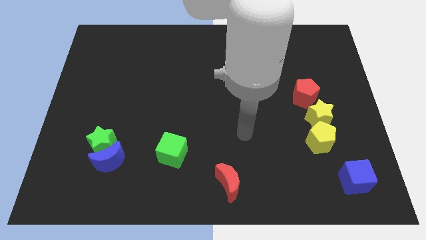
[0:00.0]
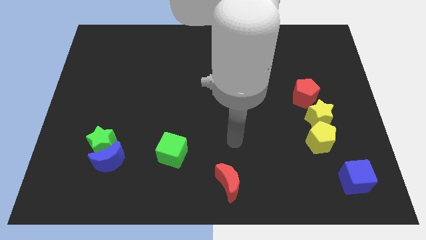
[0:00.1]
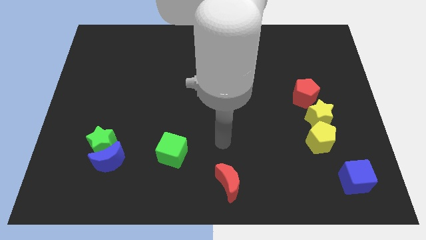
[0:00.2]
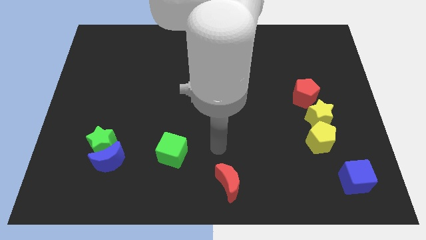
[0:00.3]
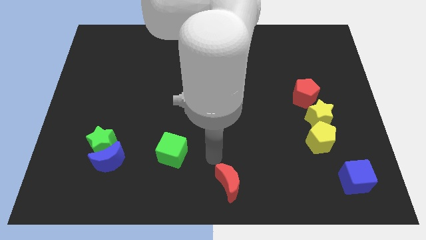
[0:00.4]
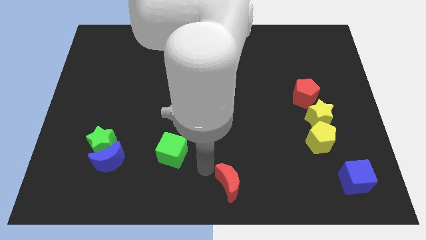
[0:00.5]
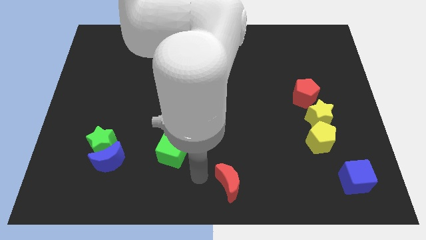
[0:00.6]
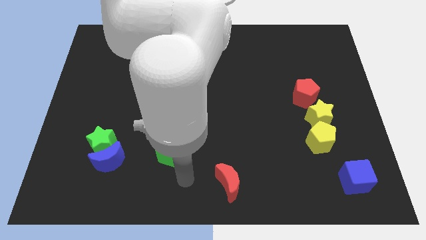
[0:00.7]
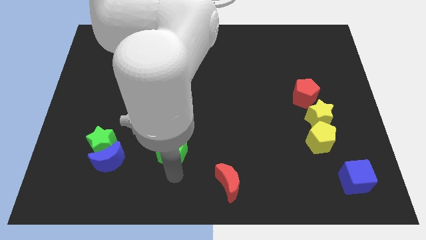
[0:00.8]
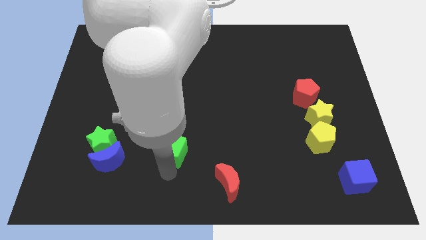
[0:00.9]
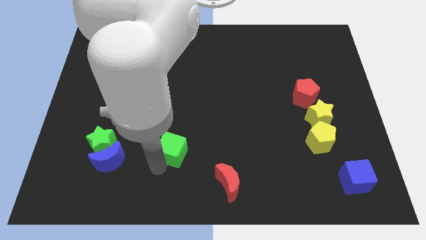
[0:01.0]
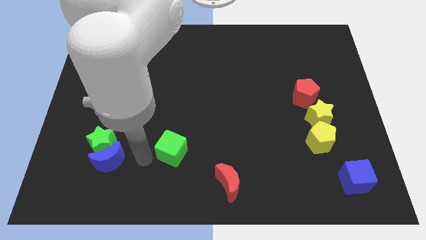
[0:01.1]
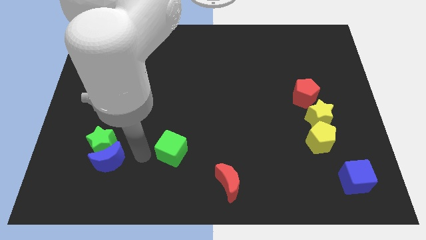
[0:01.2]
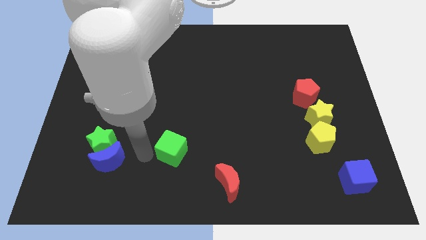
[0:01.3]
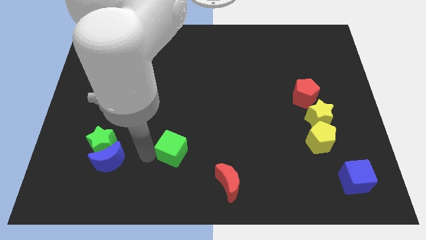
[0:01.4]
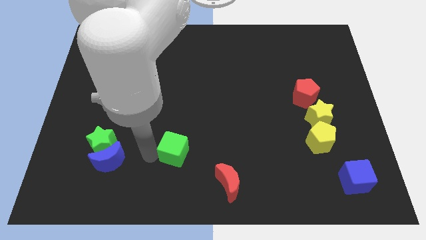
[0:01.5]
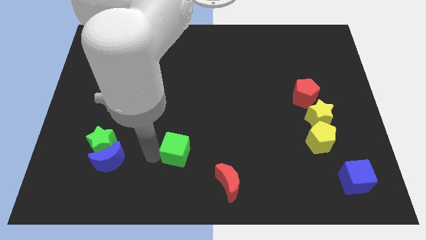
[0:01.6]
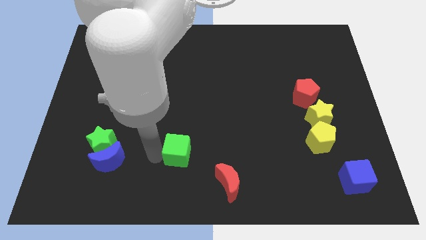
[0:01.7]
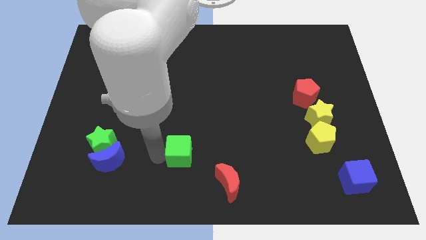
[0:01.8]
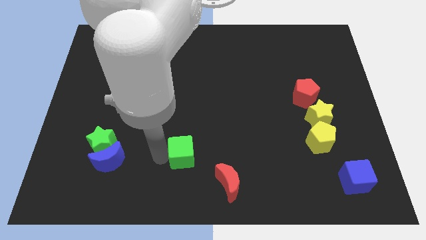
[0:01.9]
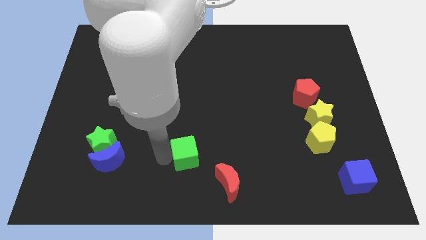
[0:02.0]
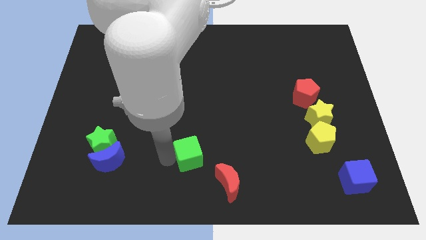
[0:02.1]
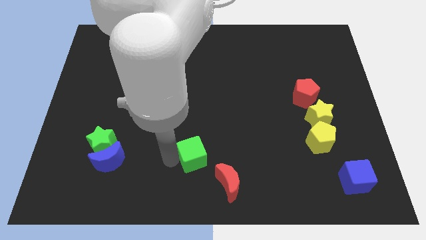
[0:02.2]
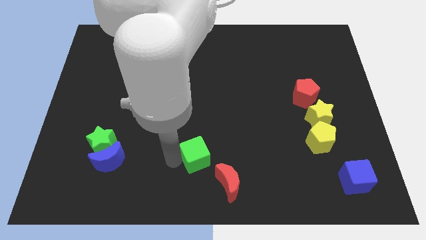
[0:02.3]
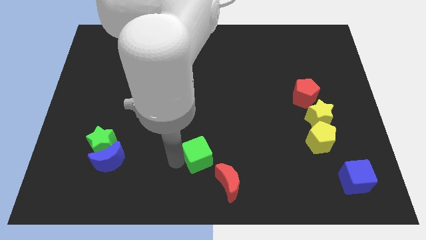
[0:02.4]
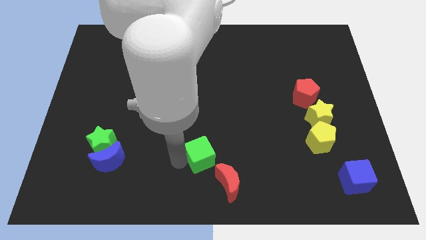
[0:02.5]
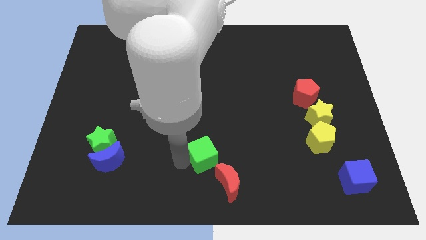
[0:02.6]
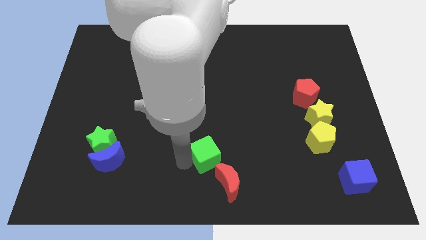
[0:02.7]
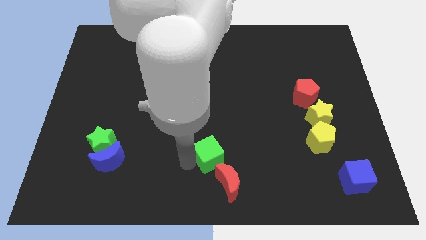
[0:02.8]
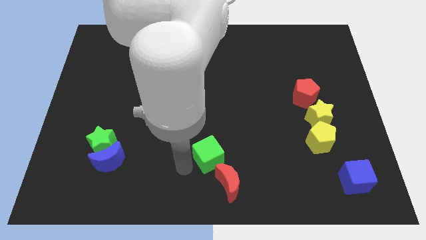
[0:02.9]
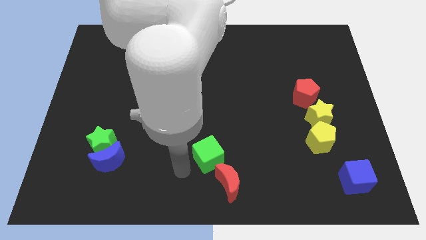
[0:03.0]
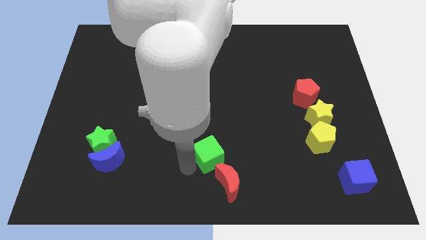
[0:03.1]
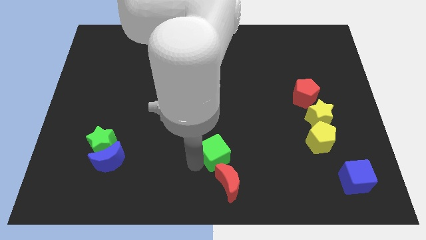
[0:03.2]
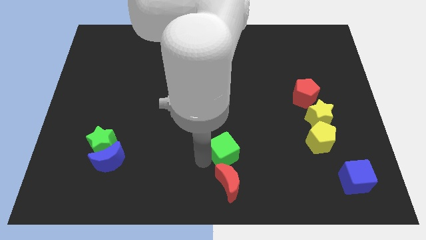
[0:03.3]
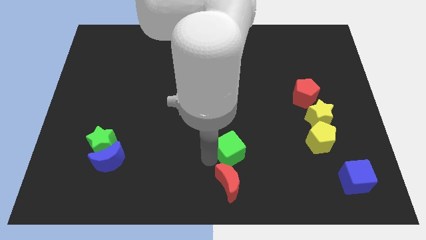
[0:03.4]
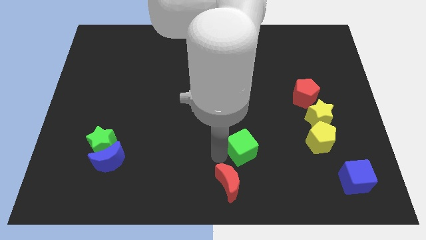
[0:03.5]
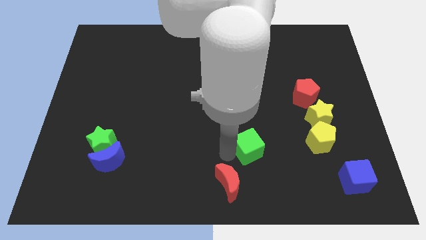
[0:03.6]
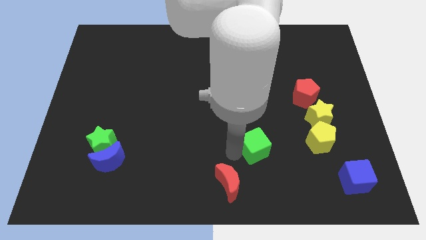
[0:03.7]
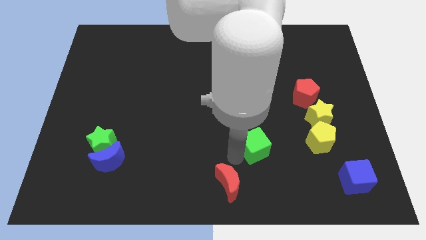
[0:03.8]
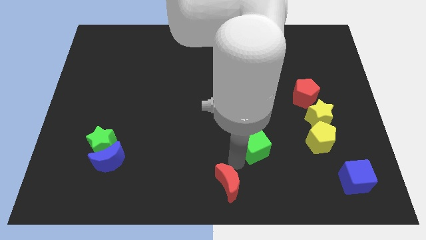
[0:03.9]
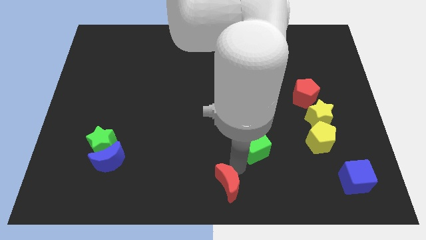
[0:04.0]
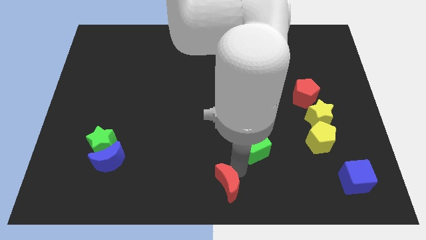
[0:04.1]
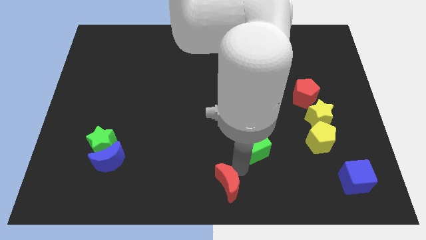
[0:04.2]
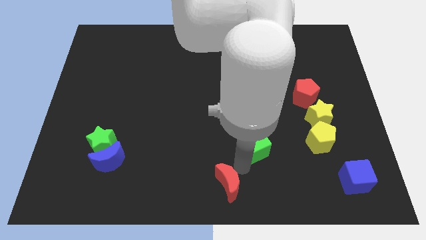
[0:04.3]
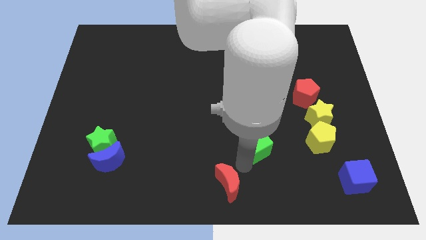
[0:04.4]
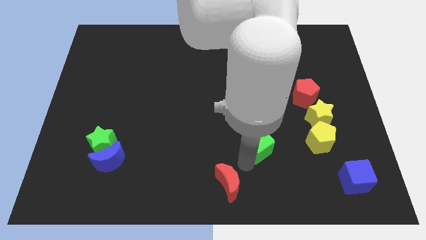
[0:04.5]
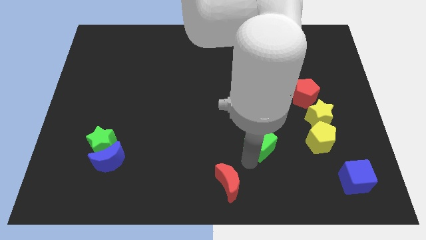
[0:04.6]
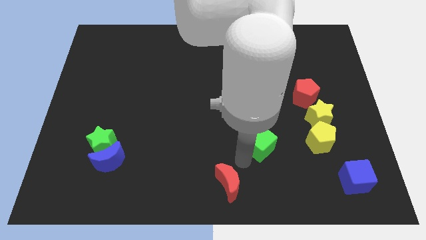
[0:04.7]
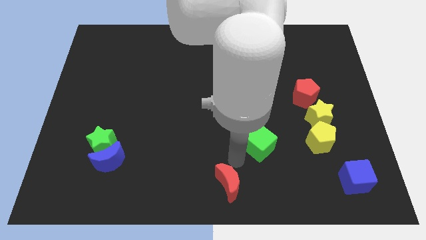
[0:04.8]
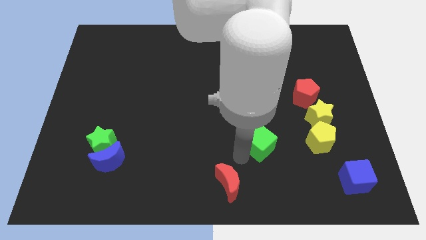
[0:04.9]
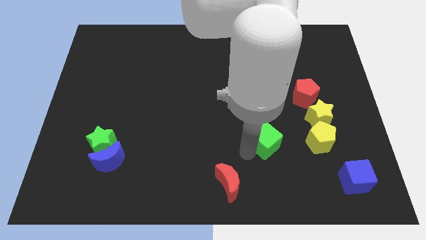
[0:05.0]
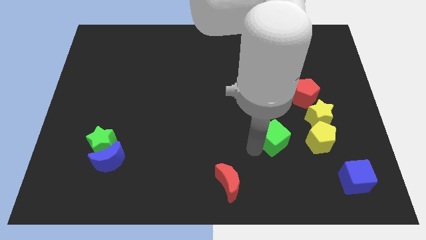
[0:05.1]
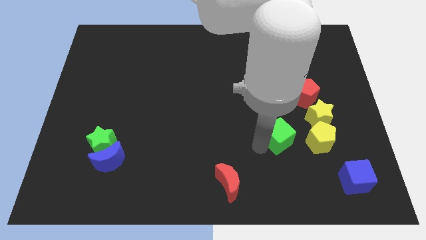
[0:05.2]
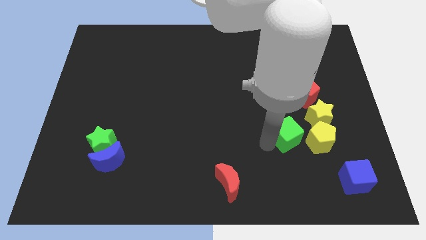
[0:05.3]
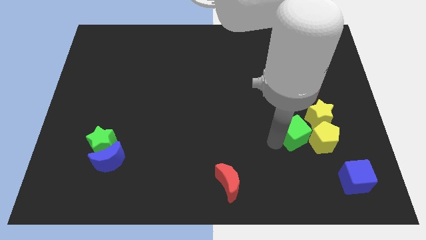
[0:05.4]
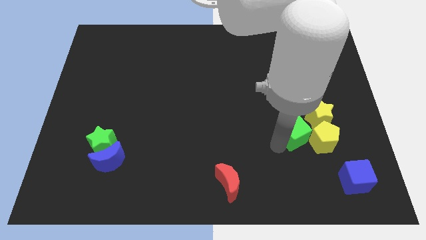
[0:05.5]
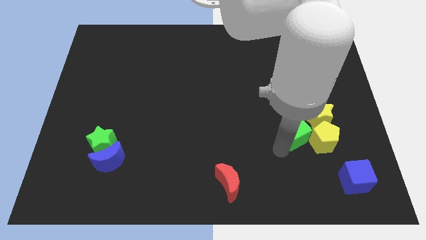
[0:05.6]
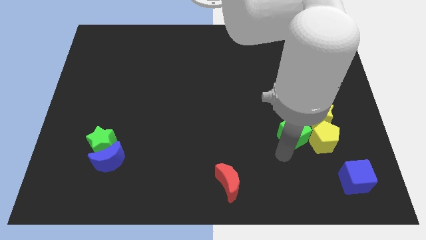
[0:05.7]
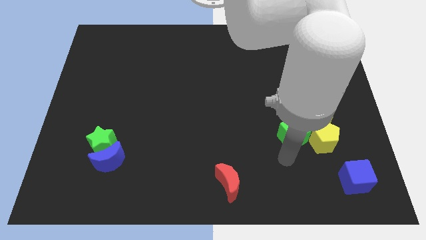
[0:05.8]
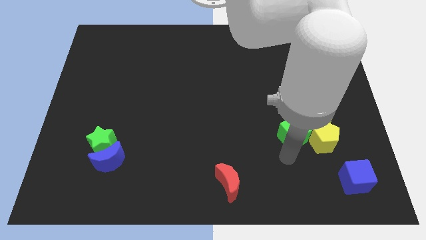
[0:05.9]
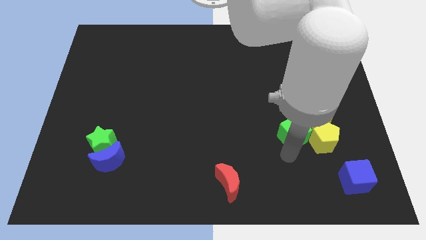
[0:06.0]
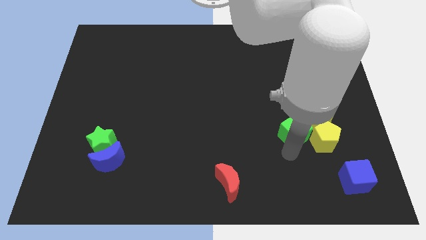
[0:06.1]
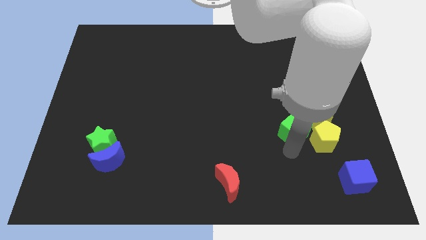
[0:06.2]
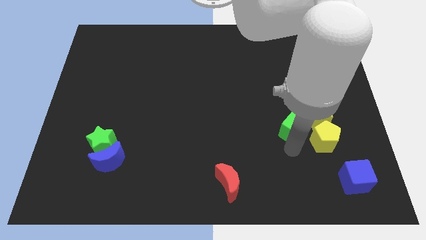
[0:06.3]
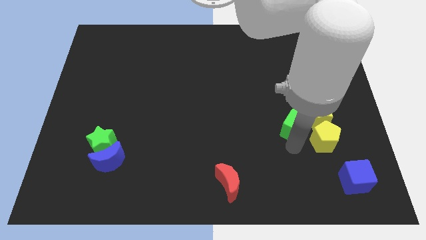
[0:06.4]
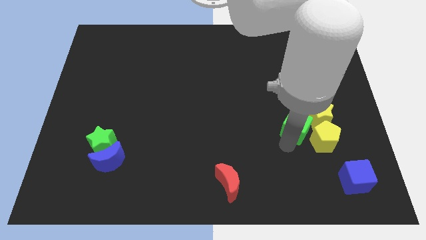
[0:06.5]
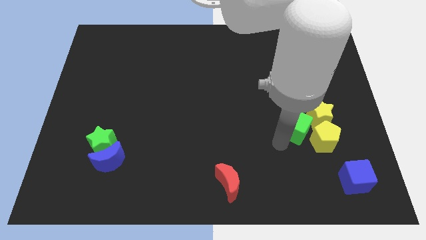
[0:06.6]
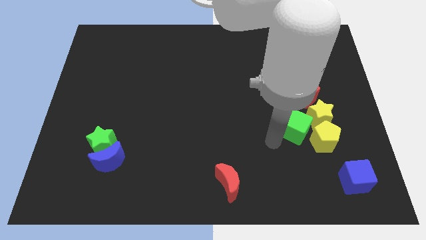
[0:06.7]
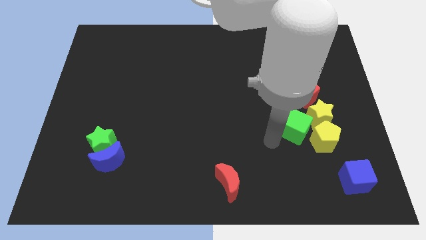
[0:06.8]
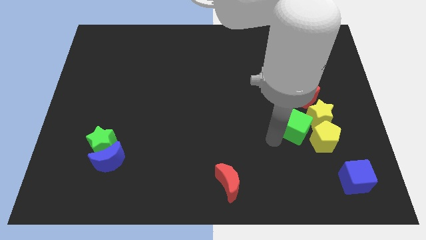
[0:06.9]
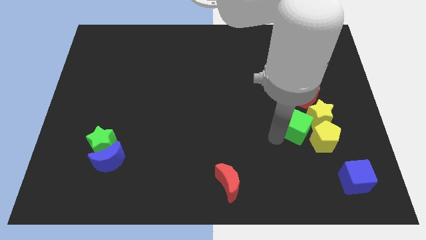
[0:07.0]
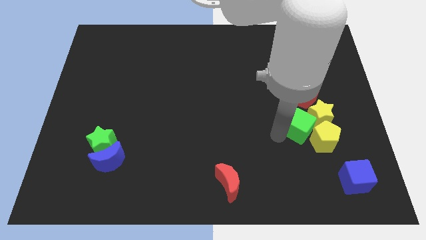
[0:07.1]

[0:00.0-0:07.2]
move the green cube close to the yellow star
